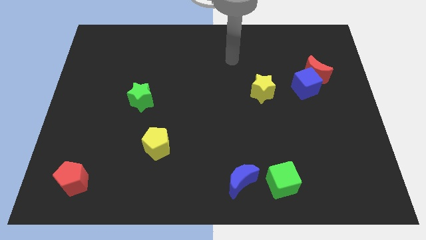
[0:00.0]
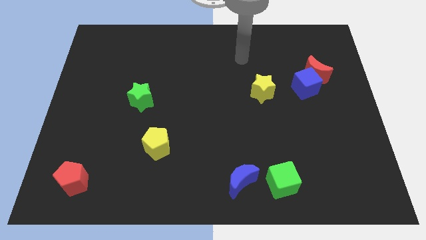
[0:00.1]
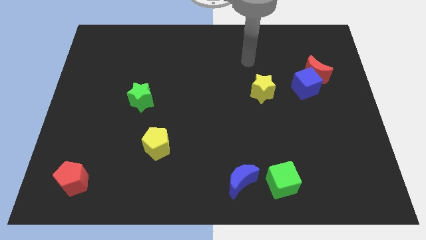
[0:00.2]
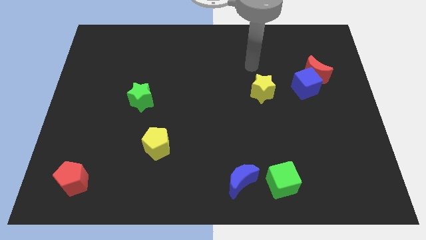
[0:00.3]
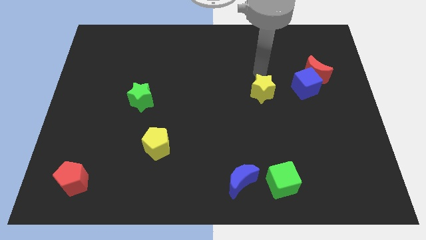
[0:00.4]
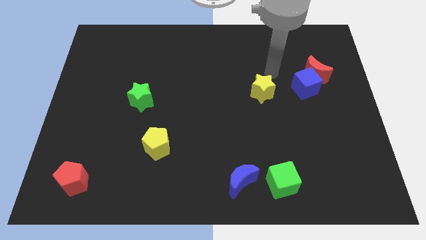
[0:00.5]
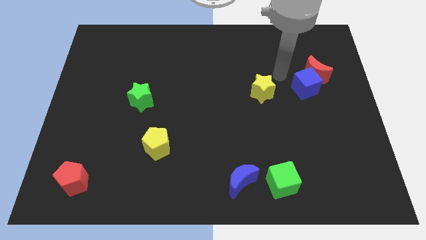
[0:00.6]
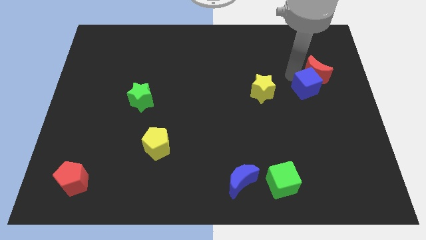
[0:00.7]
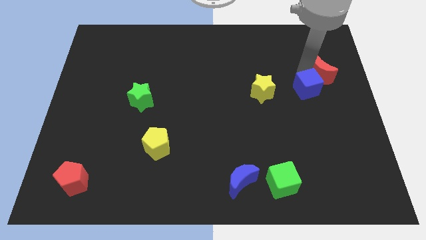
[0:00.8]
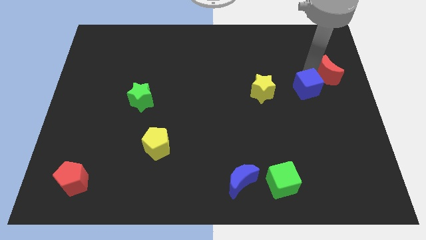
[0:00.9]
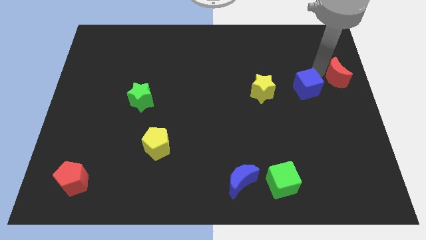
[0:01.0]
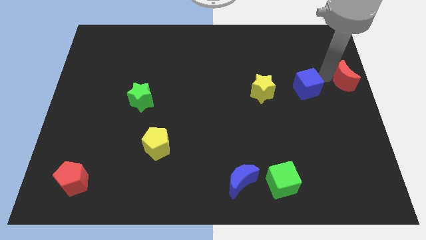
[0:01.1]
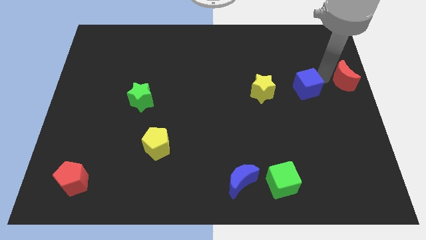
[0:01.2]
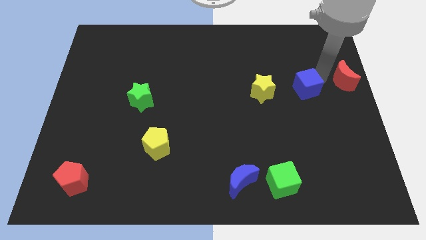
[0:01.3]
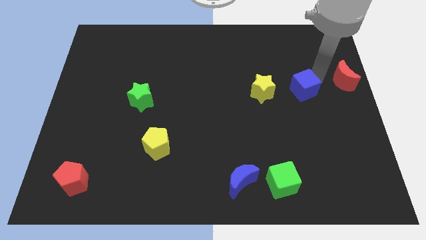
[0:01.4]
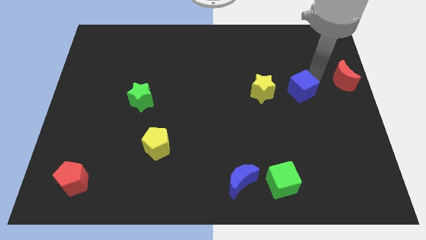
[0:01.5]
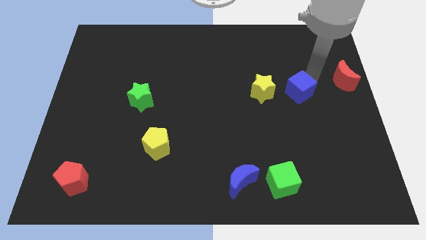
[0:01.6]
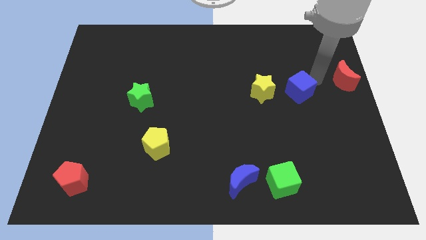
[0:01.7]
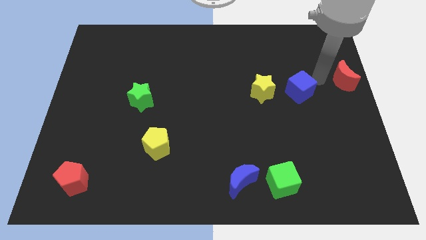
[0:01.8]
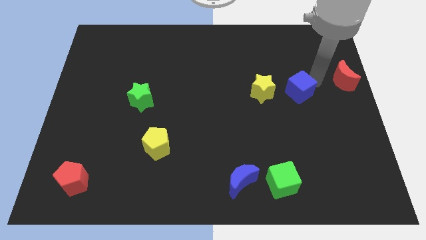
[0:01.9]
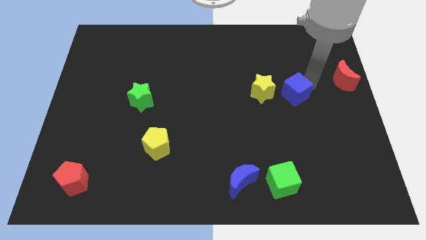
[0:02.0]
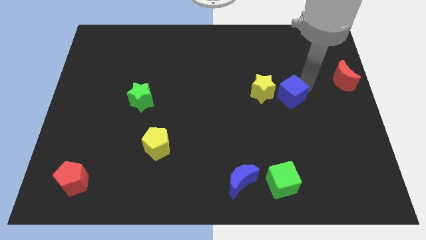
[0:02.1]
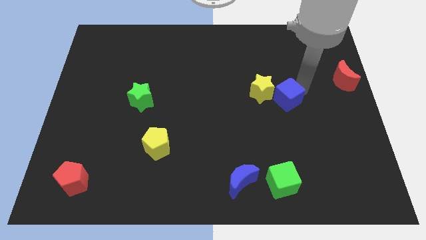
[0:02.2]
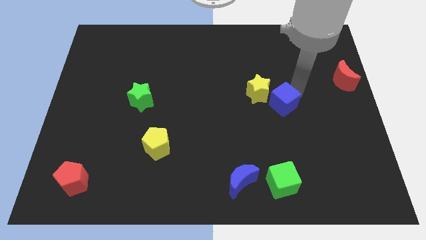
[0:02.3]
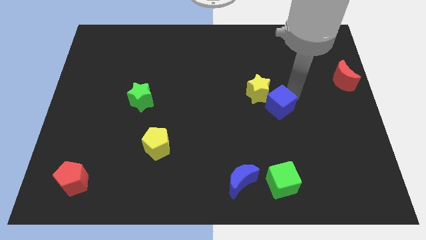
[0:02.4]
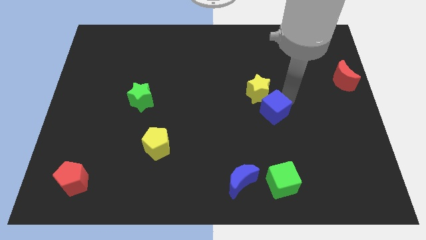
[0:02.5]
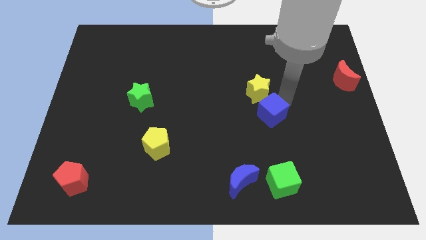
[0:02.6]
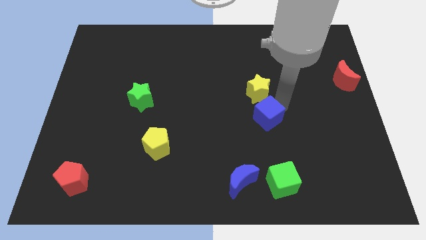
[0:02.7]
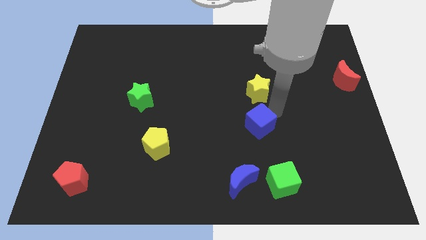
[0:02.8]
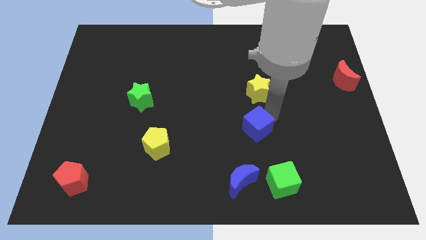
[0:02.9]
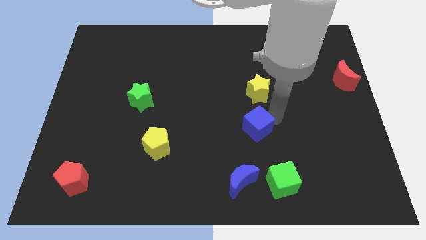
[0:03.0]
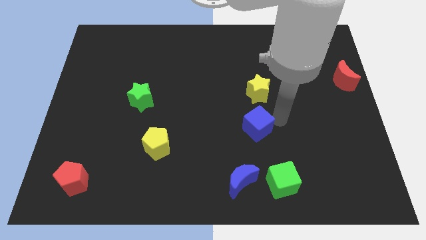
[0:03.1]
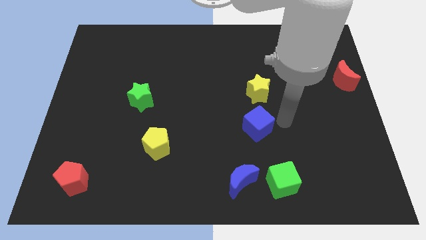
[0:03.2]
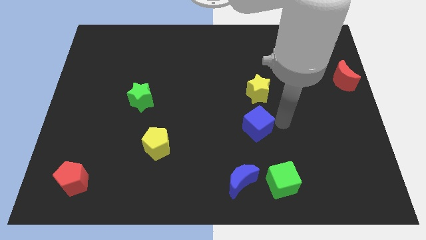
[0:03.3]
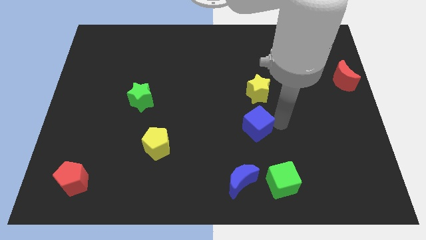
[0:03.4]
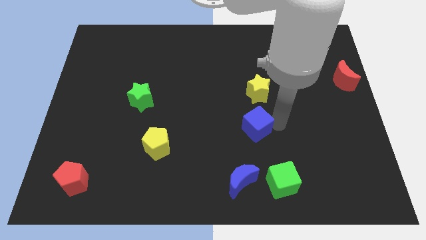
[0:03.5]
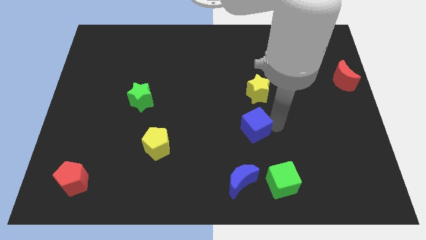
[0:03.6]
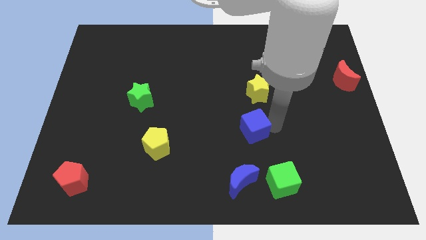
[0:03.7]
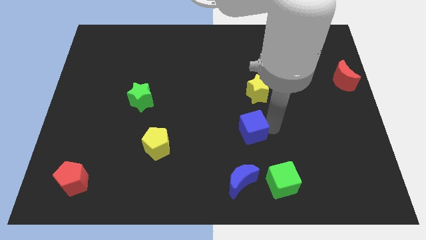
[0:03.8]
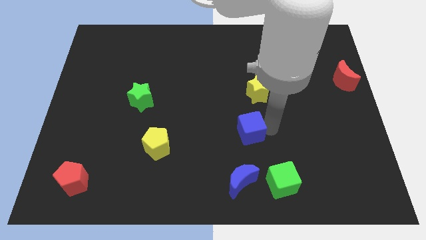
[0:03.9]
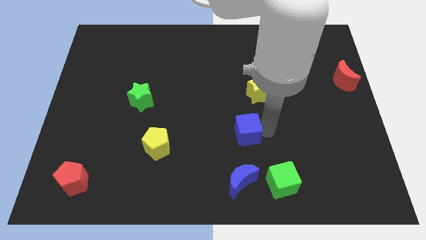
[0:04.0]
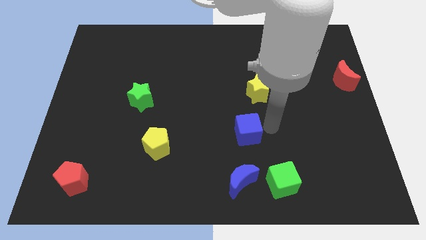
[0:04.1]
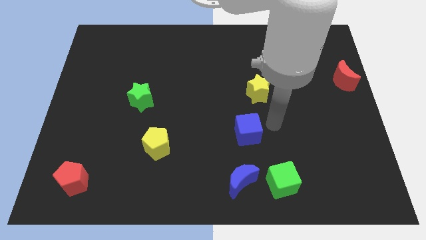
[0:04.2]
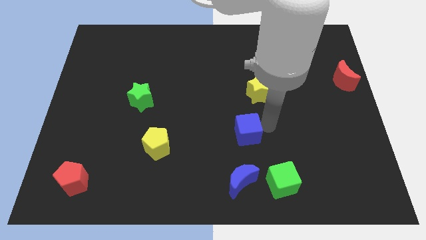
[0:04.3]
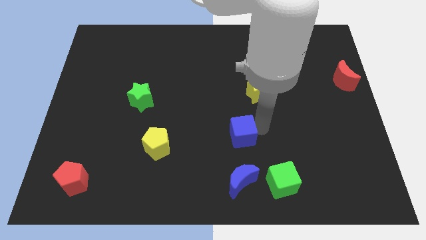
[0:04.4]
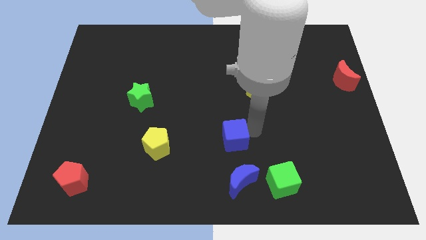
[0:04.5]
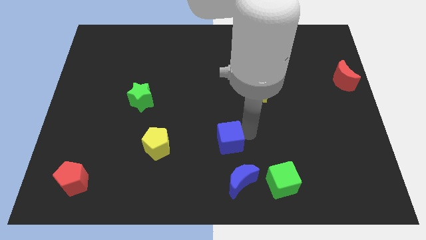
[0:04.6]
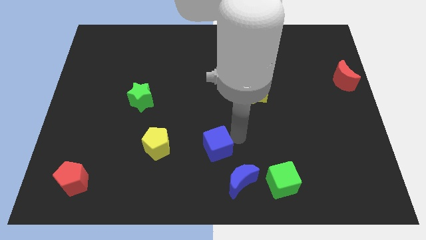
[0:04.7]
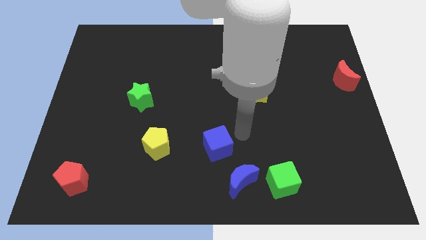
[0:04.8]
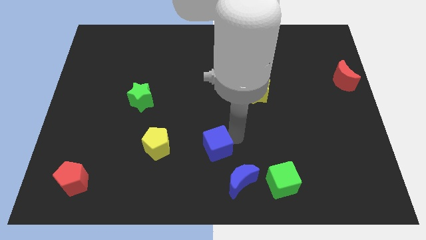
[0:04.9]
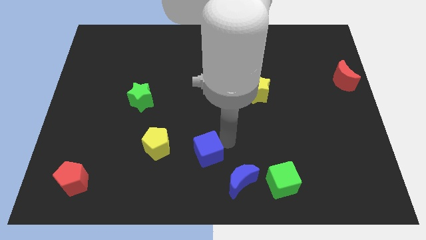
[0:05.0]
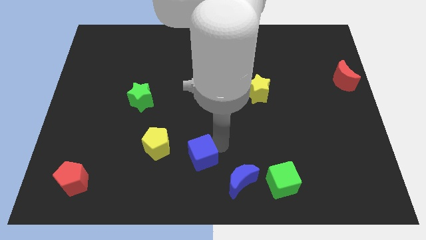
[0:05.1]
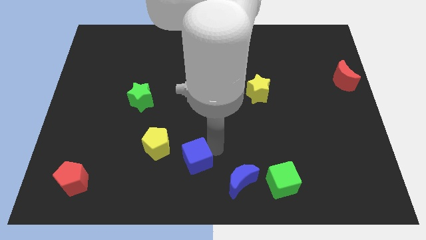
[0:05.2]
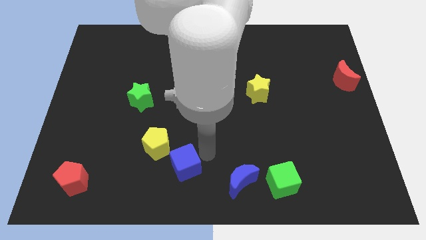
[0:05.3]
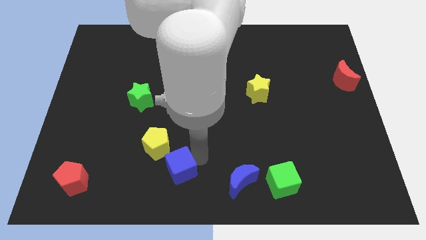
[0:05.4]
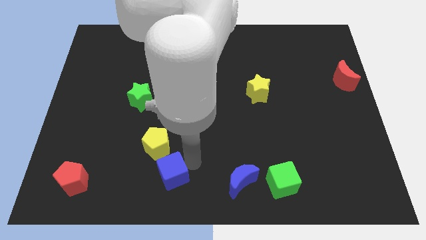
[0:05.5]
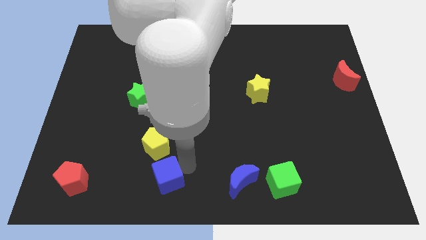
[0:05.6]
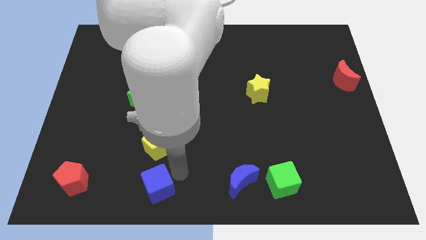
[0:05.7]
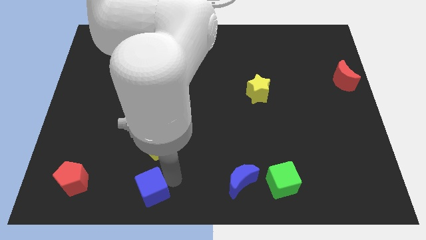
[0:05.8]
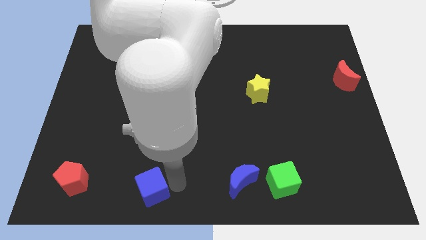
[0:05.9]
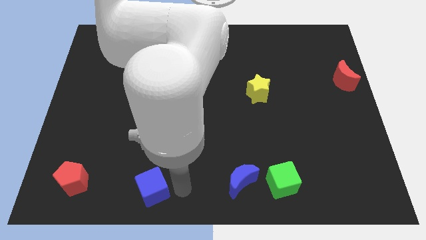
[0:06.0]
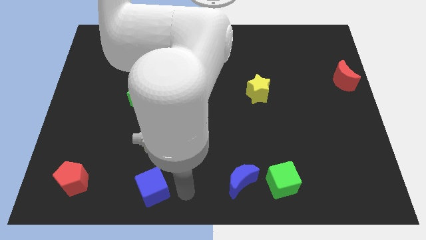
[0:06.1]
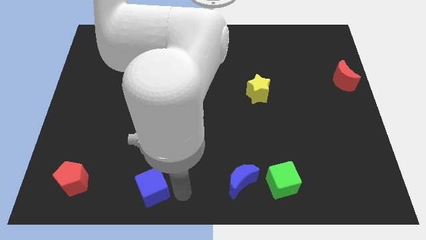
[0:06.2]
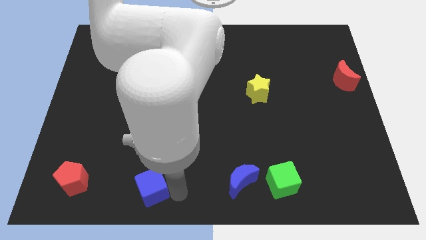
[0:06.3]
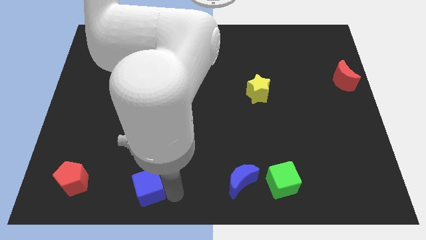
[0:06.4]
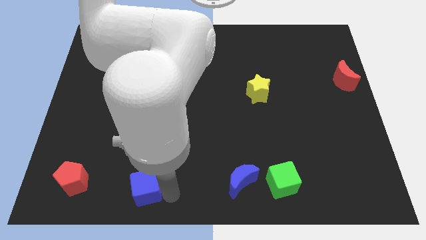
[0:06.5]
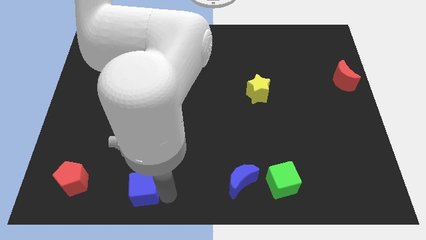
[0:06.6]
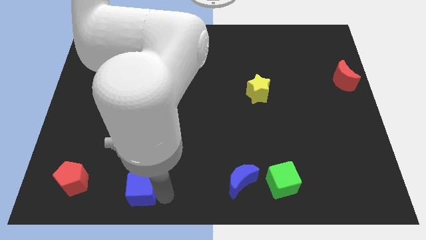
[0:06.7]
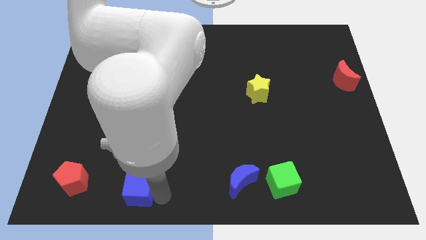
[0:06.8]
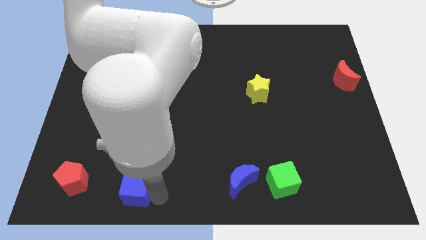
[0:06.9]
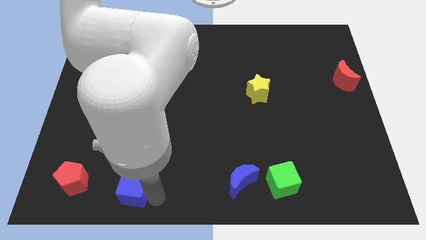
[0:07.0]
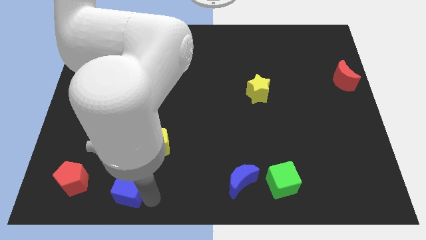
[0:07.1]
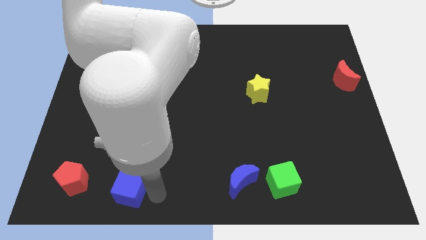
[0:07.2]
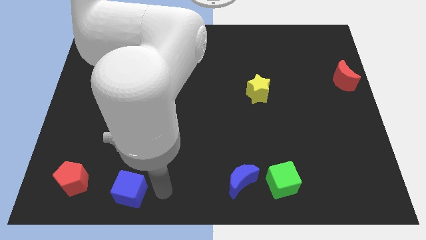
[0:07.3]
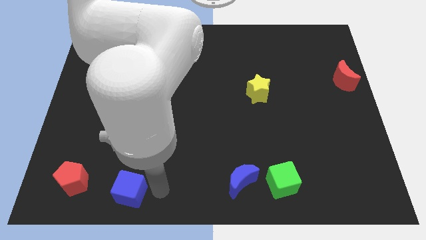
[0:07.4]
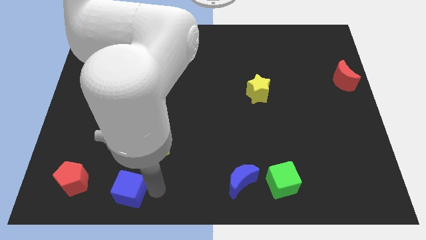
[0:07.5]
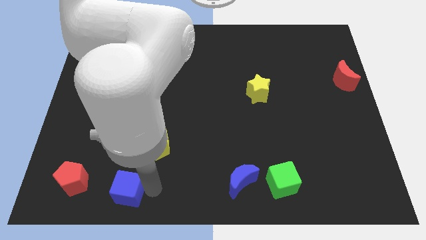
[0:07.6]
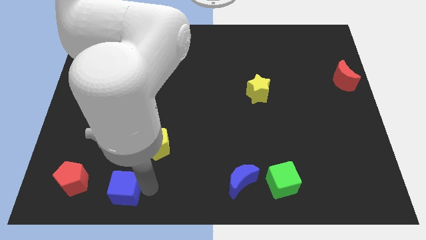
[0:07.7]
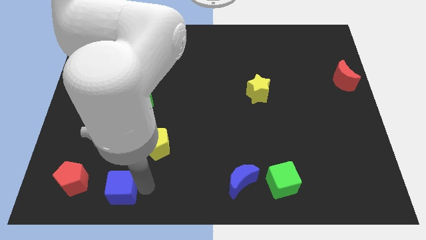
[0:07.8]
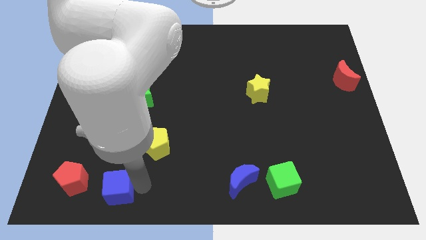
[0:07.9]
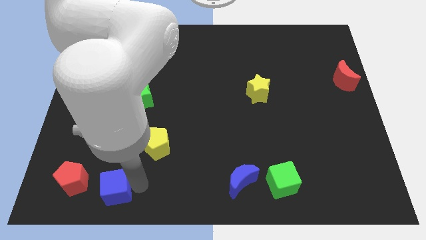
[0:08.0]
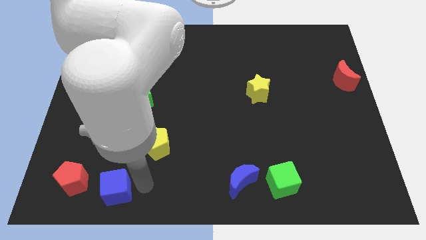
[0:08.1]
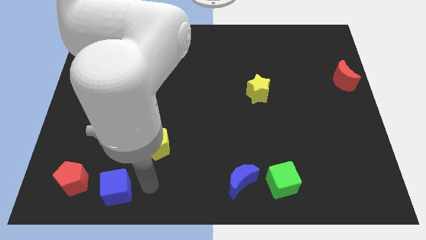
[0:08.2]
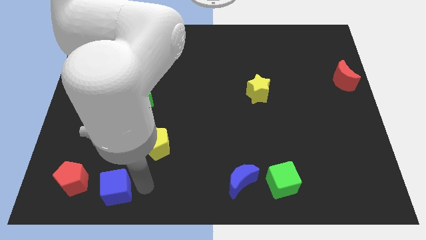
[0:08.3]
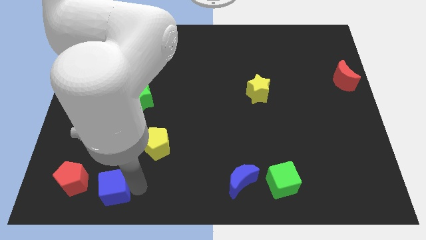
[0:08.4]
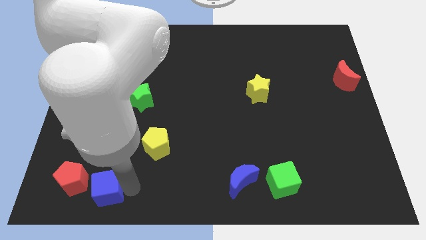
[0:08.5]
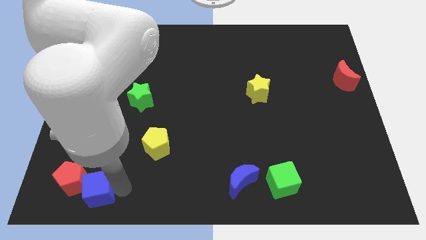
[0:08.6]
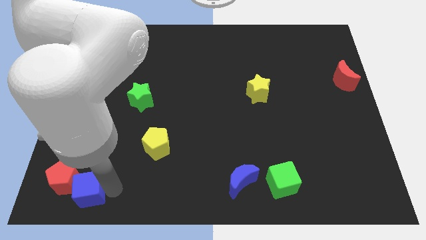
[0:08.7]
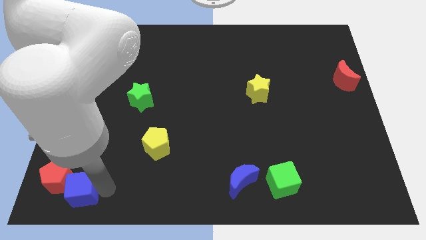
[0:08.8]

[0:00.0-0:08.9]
move the blue cube to the bottom left corner
